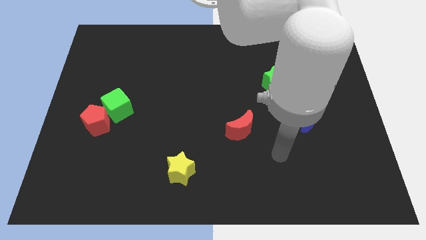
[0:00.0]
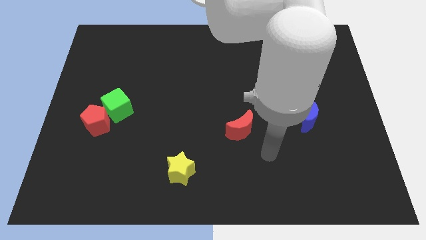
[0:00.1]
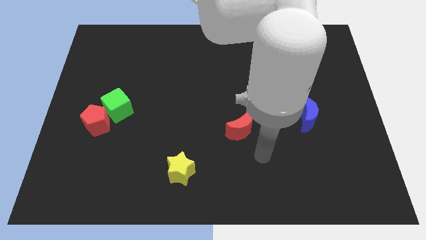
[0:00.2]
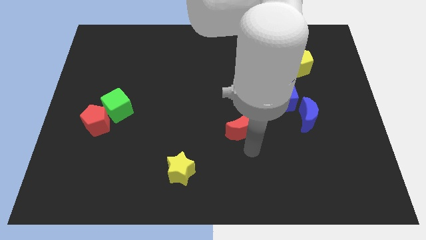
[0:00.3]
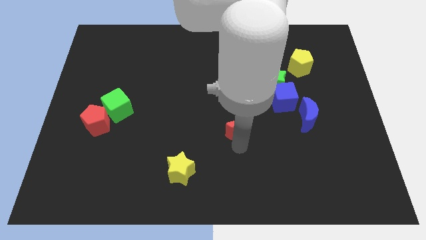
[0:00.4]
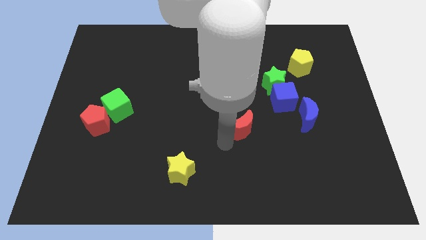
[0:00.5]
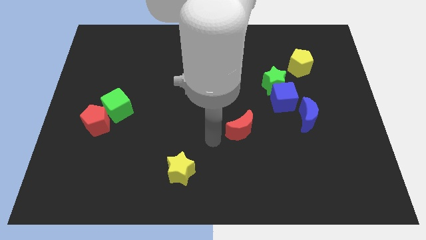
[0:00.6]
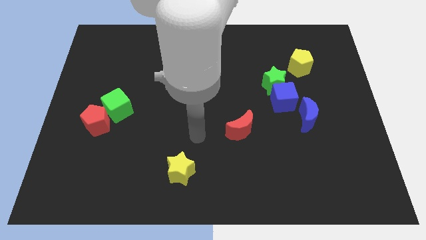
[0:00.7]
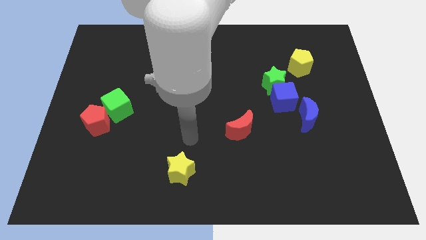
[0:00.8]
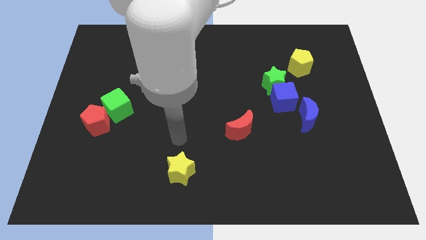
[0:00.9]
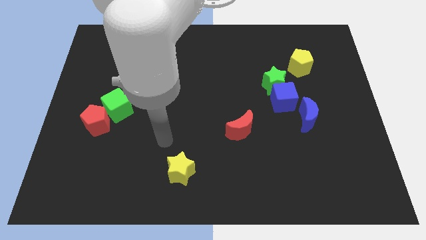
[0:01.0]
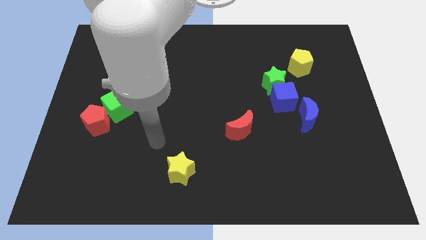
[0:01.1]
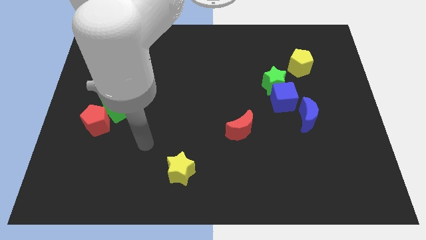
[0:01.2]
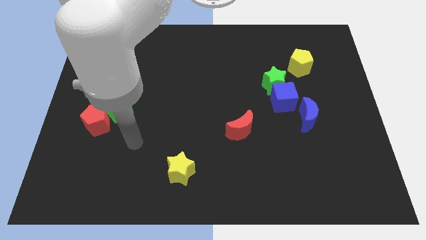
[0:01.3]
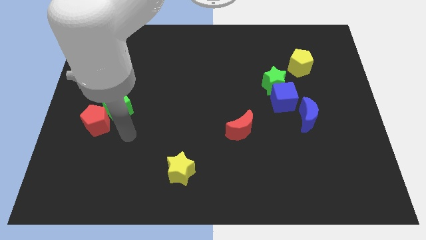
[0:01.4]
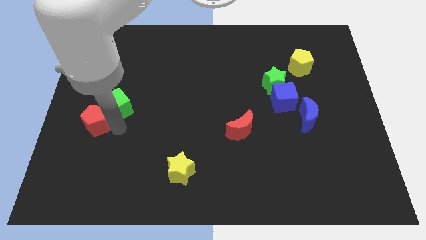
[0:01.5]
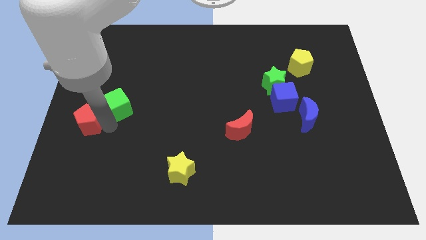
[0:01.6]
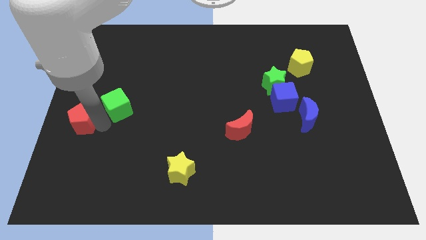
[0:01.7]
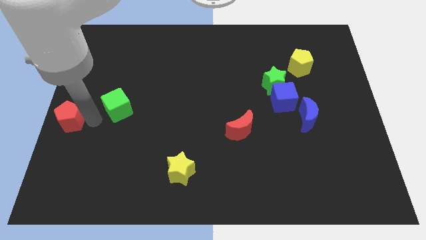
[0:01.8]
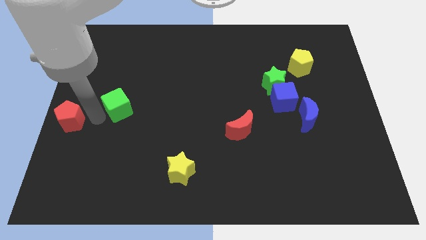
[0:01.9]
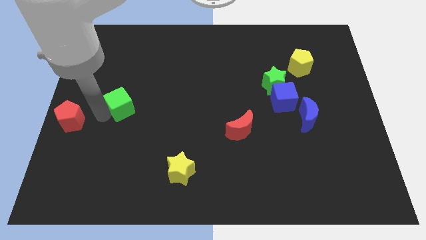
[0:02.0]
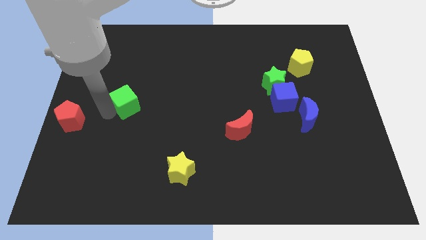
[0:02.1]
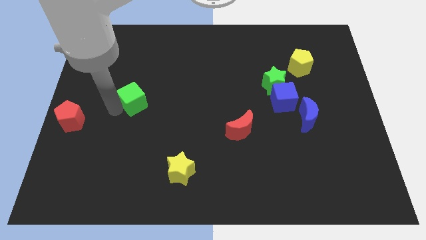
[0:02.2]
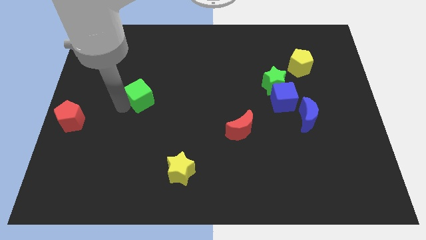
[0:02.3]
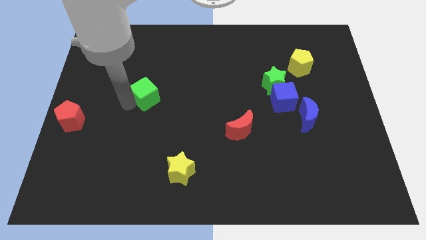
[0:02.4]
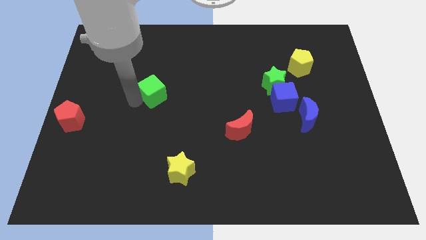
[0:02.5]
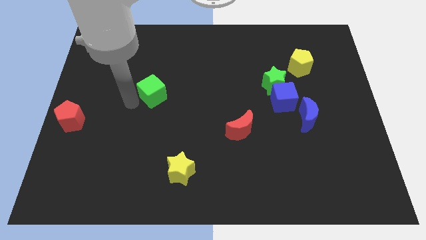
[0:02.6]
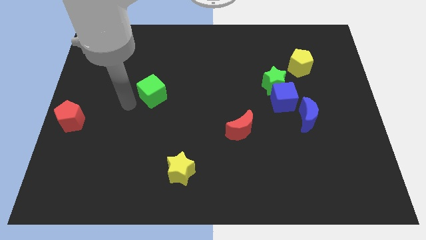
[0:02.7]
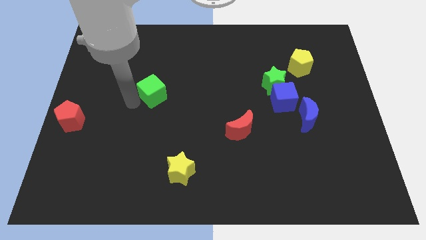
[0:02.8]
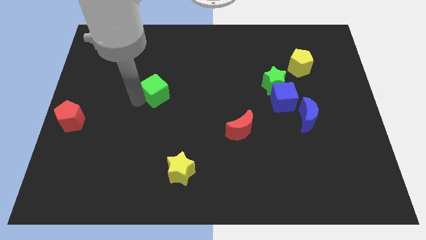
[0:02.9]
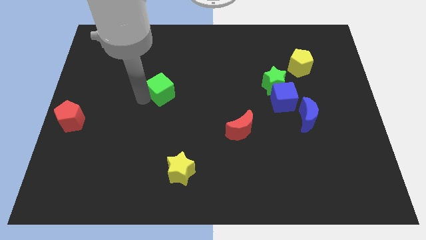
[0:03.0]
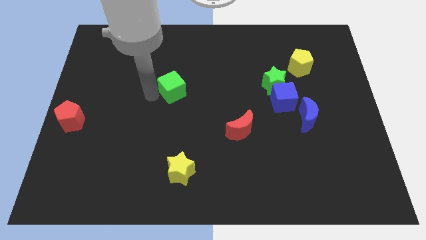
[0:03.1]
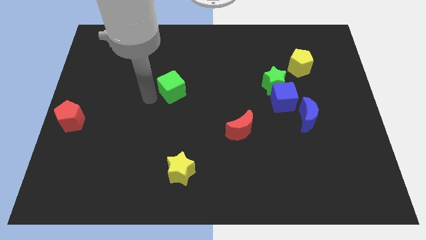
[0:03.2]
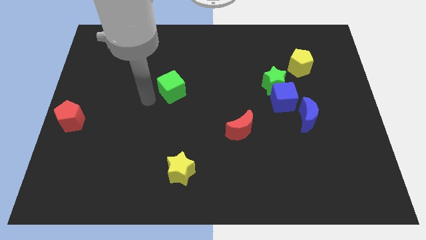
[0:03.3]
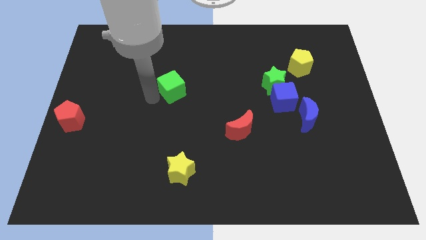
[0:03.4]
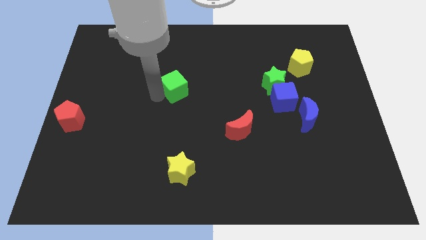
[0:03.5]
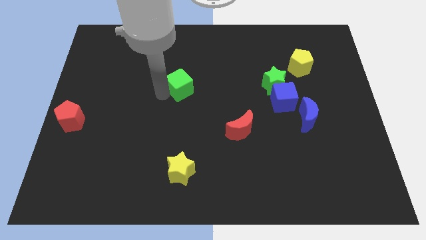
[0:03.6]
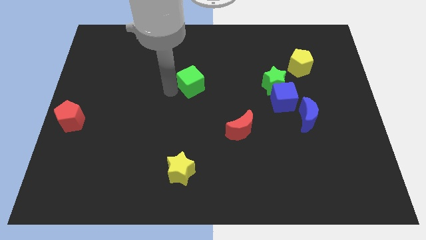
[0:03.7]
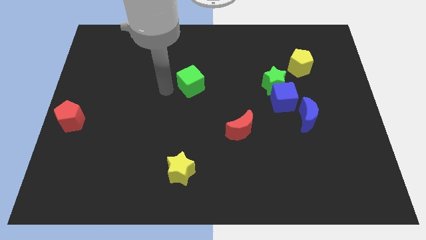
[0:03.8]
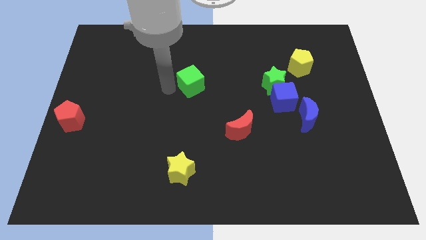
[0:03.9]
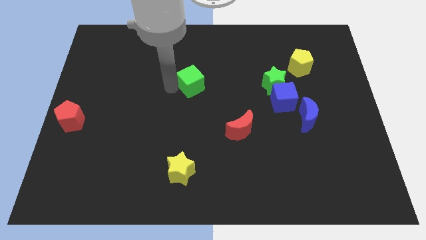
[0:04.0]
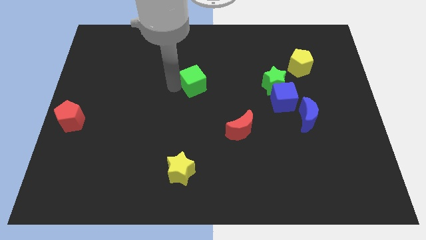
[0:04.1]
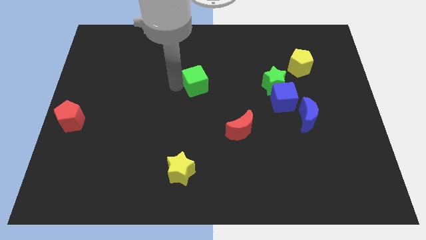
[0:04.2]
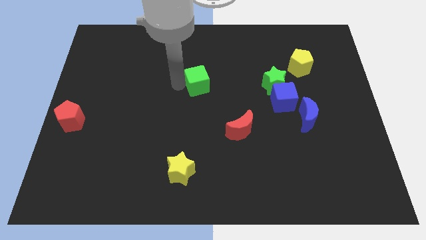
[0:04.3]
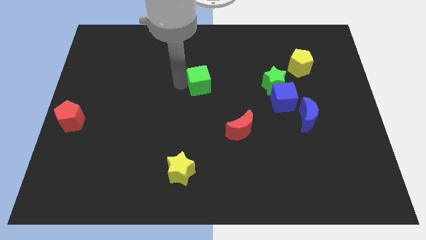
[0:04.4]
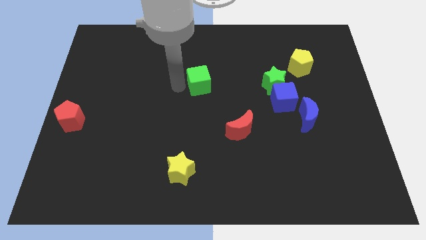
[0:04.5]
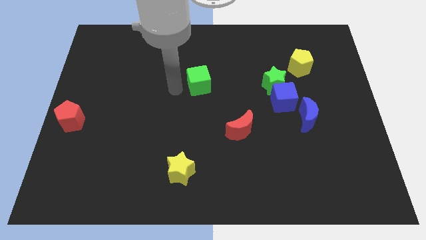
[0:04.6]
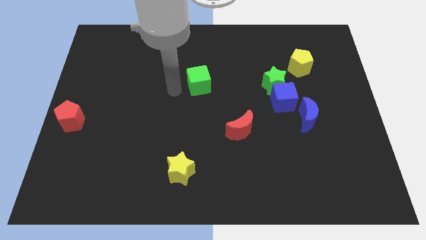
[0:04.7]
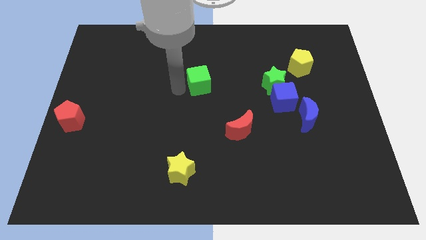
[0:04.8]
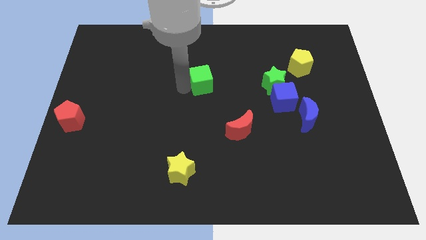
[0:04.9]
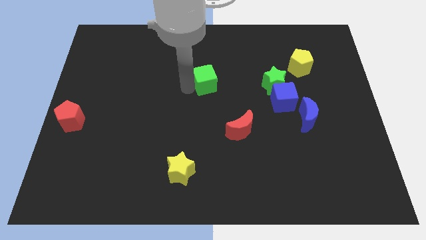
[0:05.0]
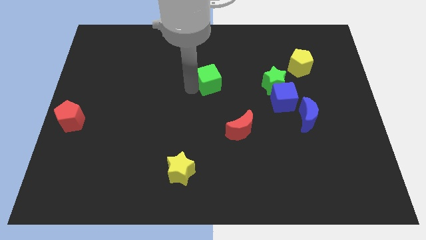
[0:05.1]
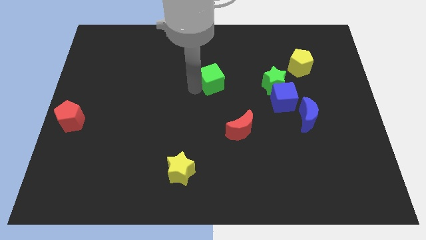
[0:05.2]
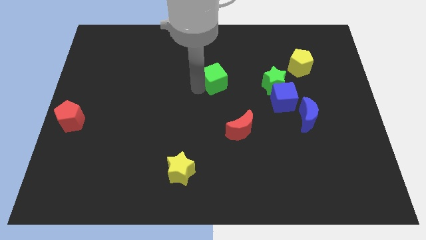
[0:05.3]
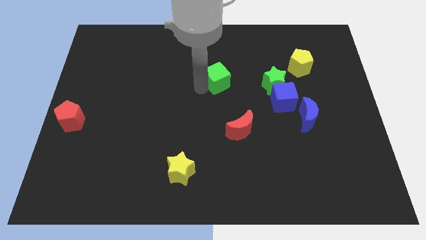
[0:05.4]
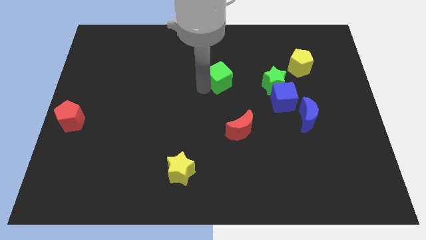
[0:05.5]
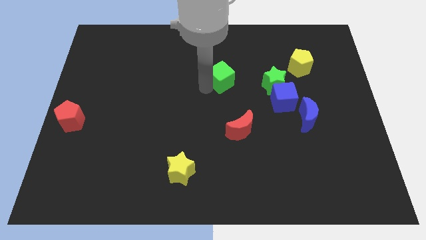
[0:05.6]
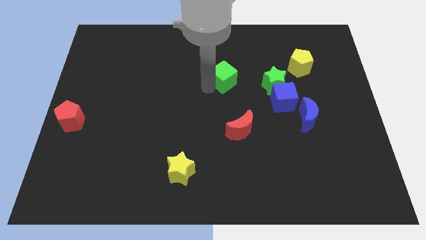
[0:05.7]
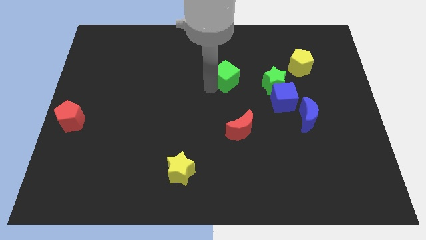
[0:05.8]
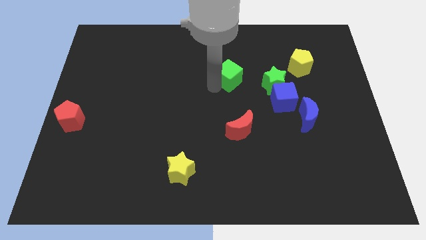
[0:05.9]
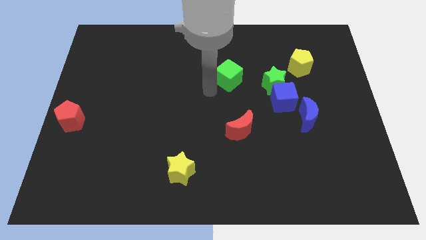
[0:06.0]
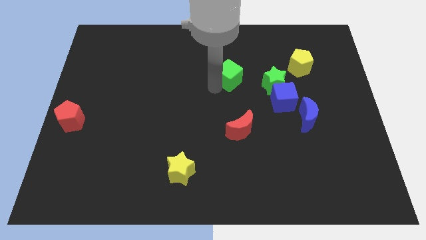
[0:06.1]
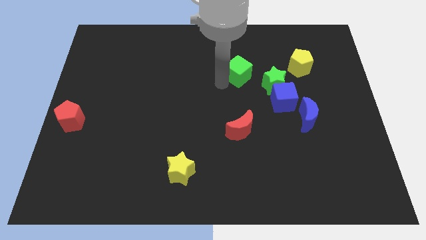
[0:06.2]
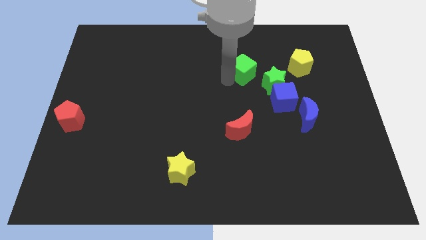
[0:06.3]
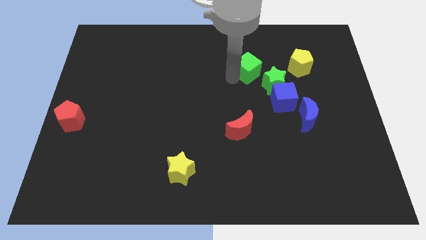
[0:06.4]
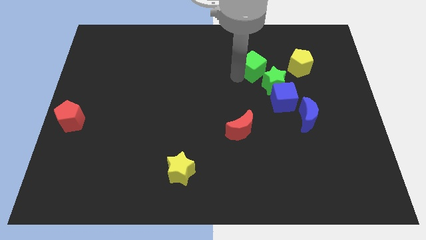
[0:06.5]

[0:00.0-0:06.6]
push the green cube to the top side of the green star

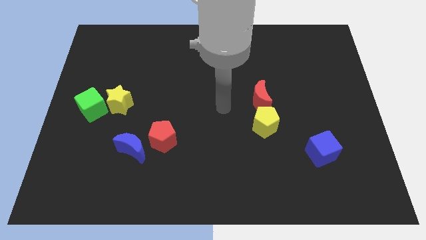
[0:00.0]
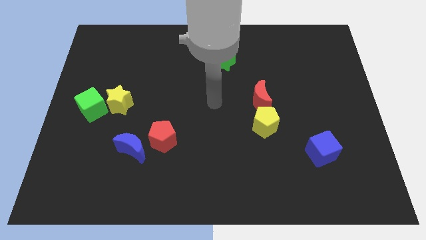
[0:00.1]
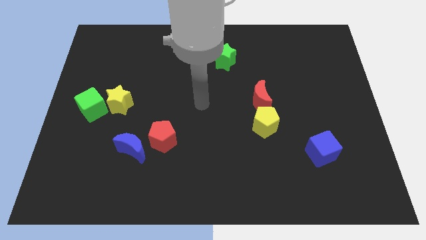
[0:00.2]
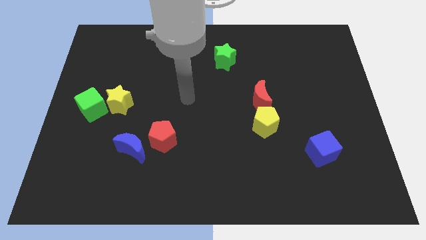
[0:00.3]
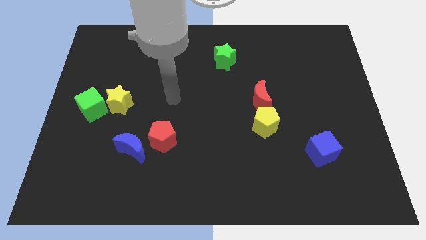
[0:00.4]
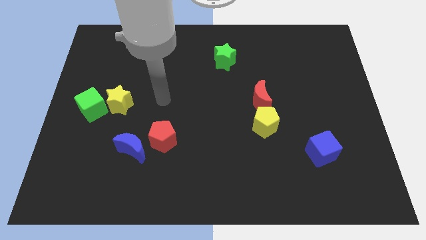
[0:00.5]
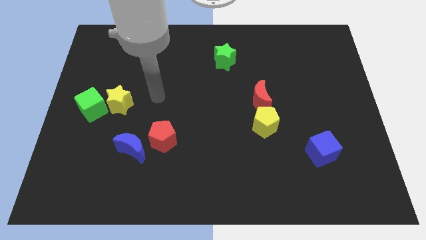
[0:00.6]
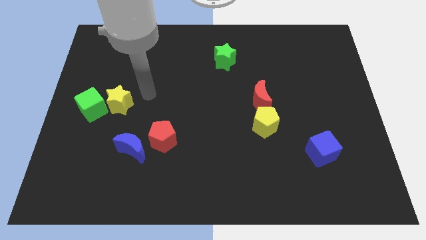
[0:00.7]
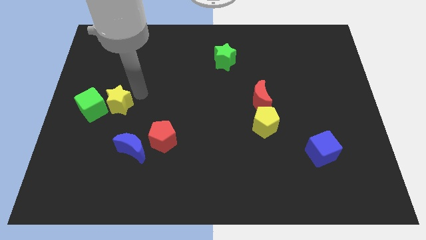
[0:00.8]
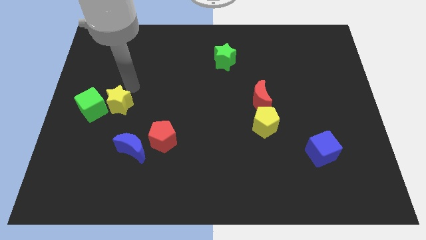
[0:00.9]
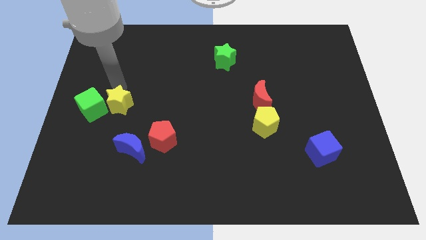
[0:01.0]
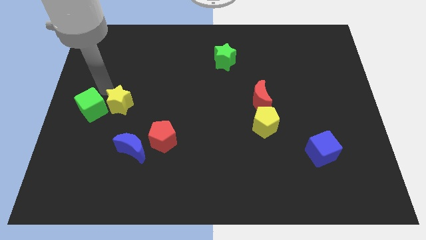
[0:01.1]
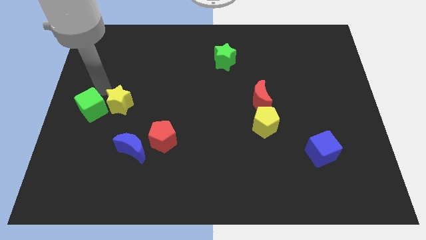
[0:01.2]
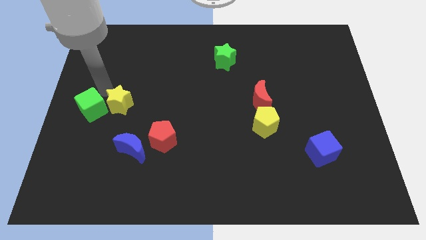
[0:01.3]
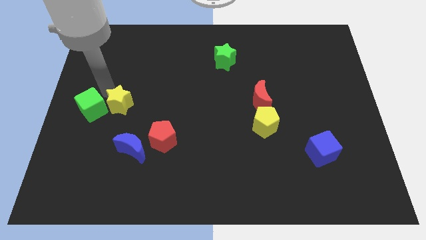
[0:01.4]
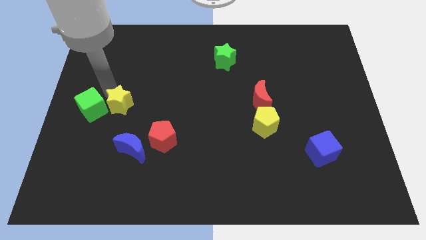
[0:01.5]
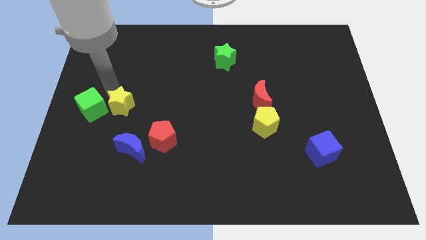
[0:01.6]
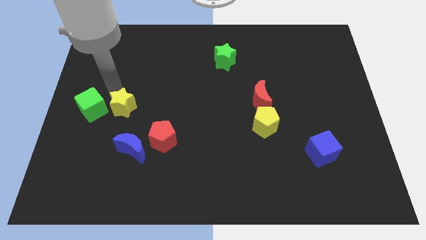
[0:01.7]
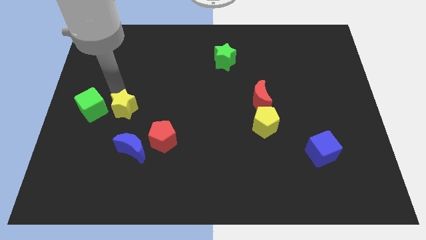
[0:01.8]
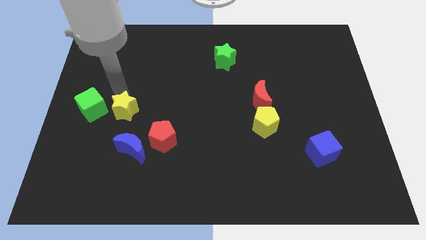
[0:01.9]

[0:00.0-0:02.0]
push the yellow star to the top left side of the red pentagon
